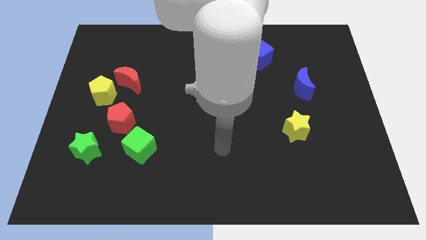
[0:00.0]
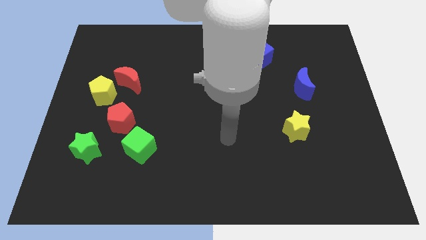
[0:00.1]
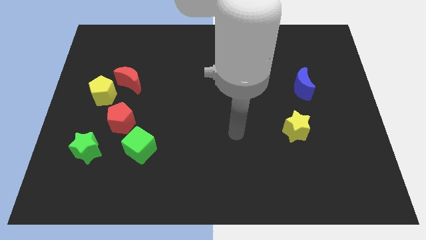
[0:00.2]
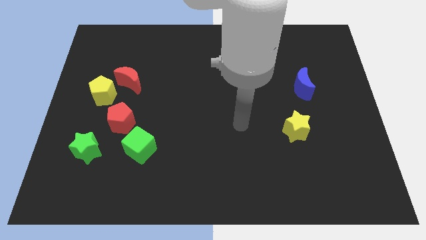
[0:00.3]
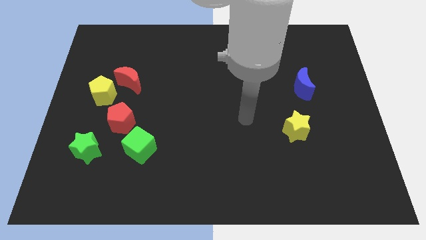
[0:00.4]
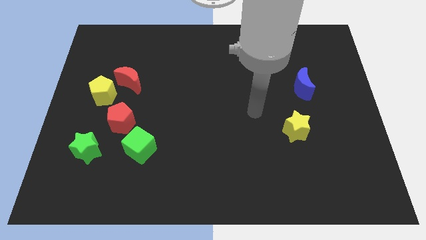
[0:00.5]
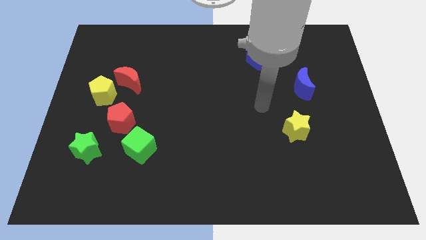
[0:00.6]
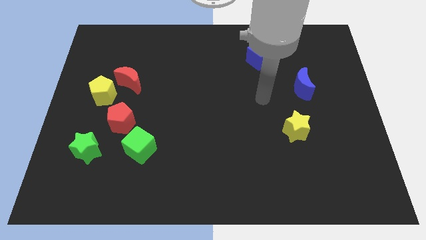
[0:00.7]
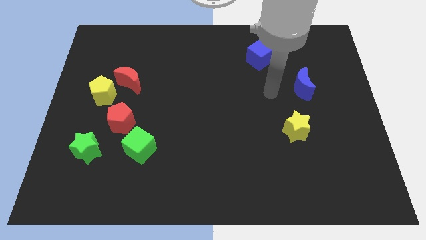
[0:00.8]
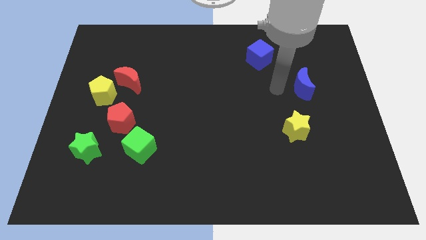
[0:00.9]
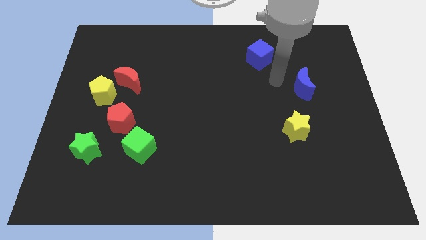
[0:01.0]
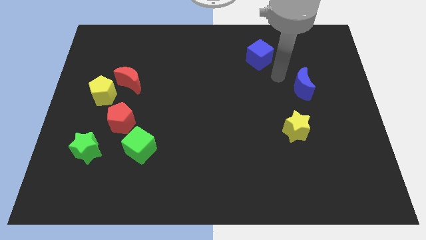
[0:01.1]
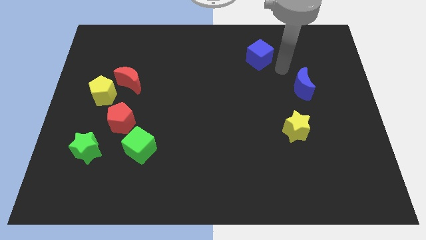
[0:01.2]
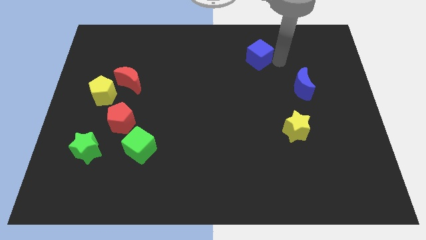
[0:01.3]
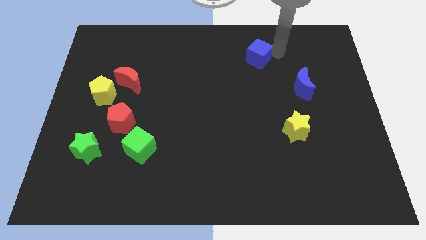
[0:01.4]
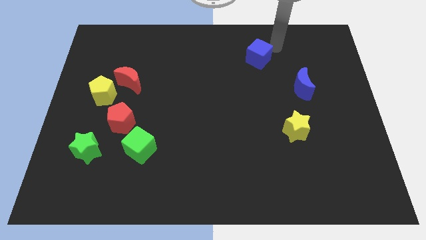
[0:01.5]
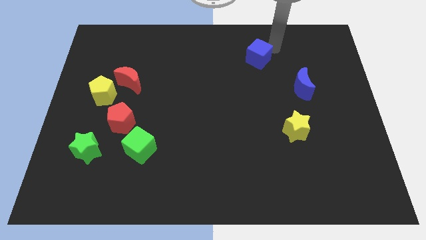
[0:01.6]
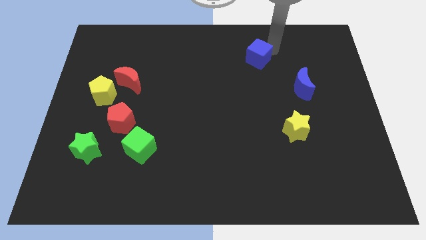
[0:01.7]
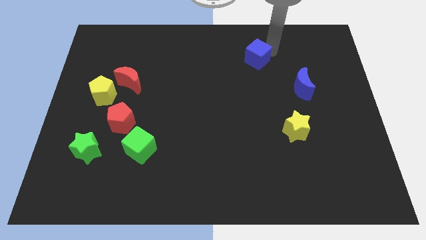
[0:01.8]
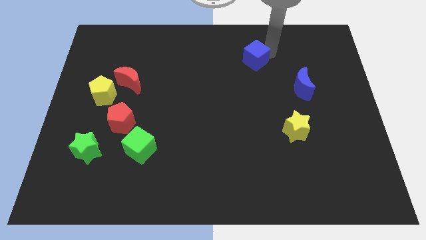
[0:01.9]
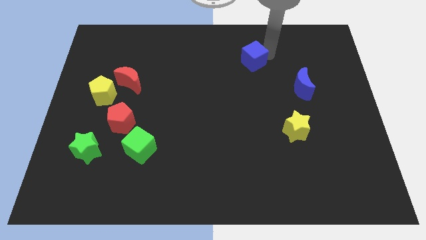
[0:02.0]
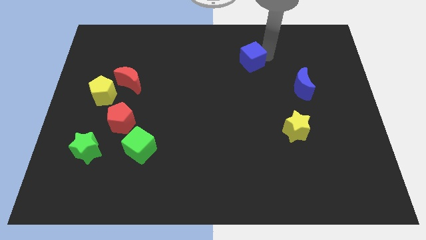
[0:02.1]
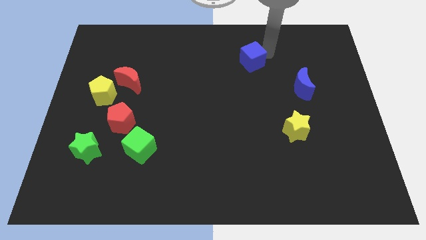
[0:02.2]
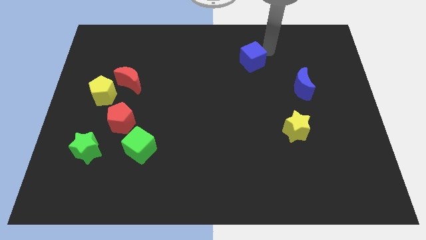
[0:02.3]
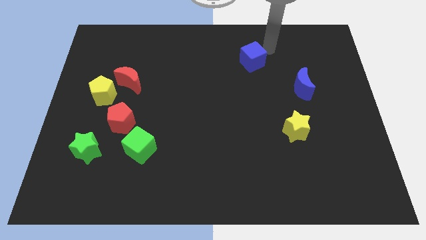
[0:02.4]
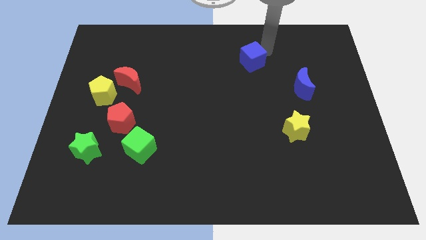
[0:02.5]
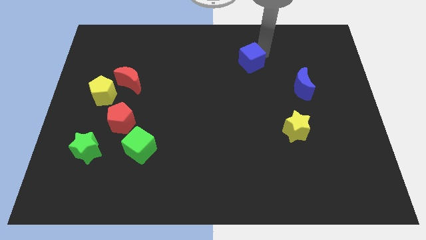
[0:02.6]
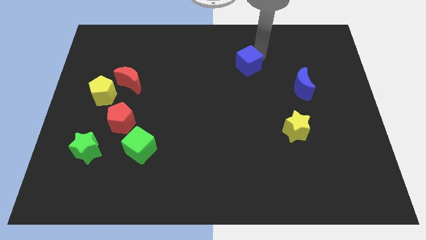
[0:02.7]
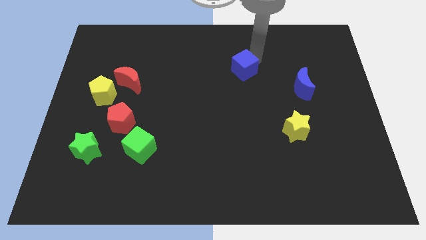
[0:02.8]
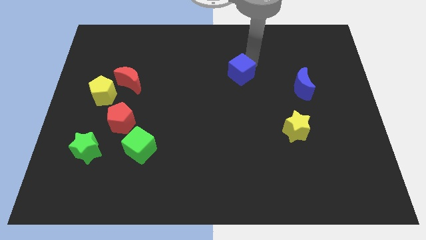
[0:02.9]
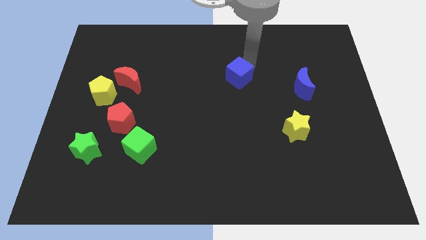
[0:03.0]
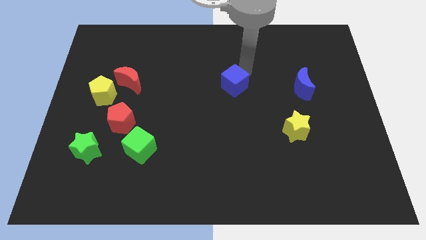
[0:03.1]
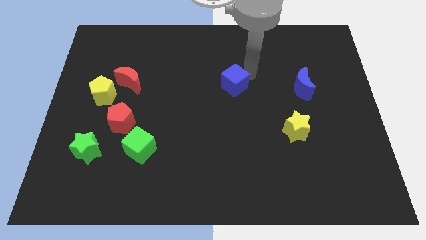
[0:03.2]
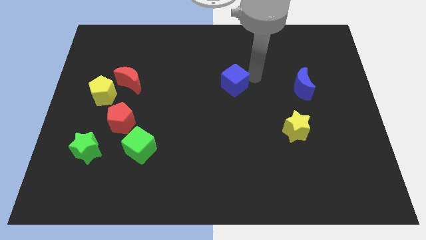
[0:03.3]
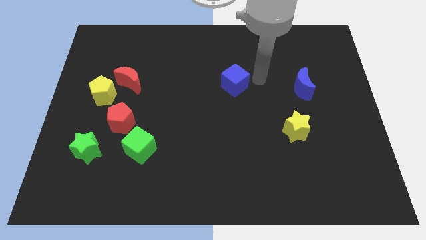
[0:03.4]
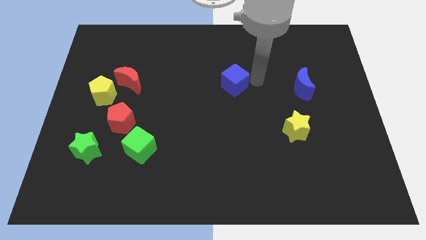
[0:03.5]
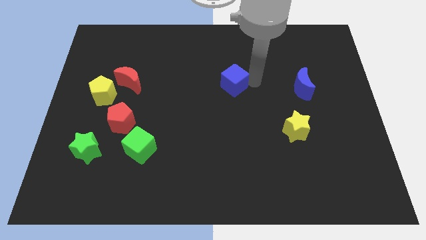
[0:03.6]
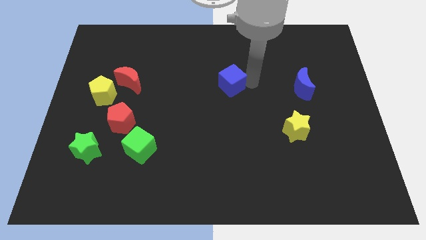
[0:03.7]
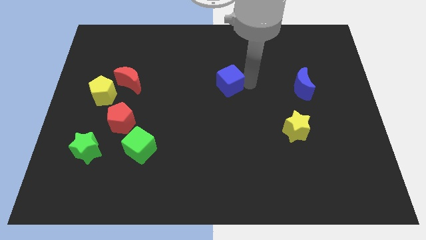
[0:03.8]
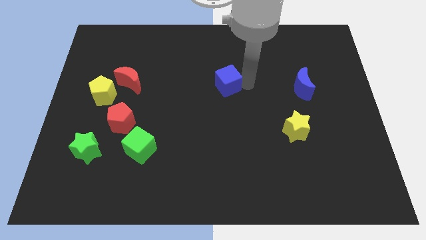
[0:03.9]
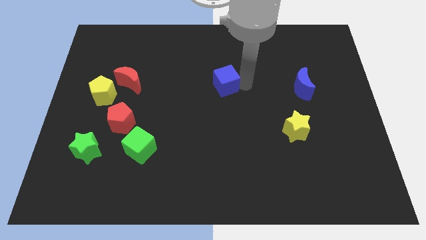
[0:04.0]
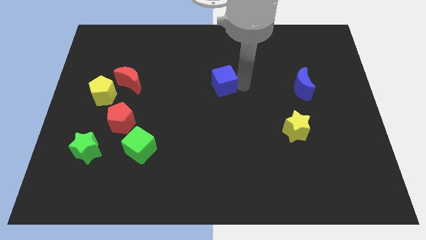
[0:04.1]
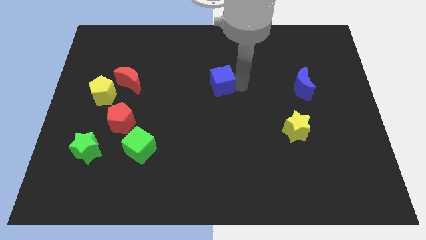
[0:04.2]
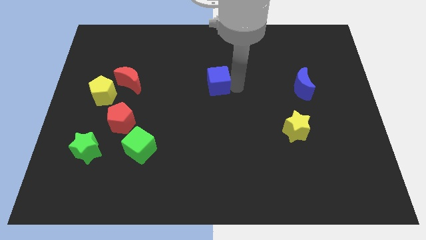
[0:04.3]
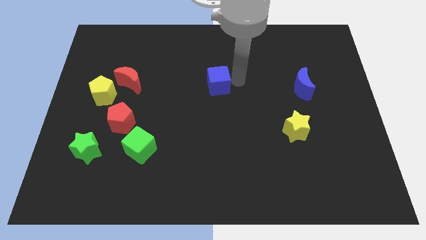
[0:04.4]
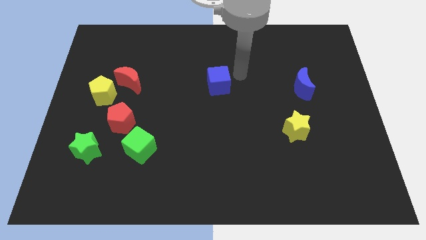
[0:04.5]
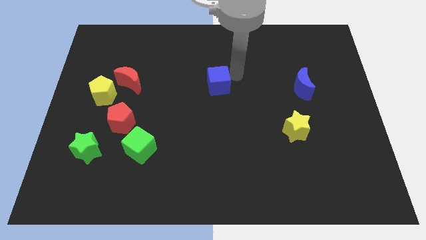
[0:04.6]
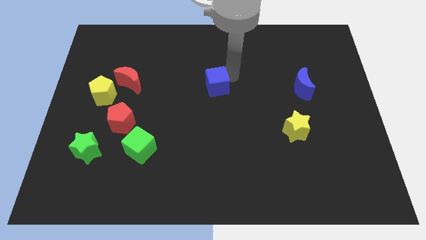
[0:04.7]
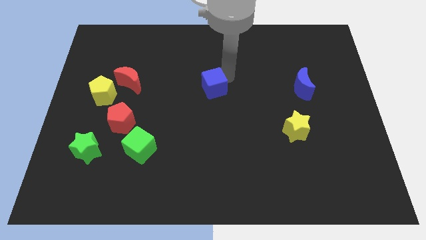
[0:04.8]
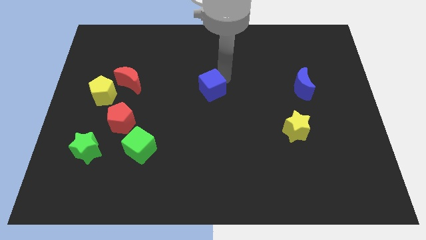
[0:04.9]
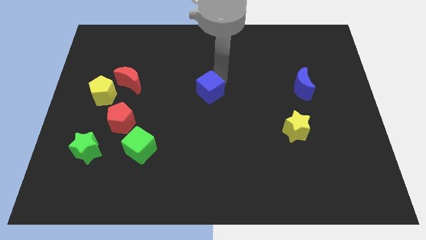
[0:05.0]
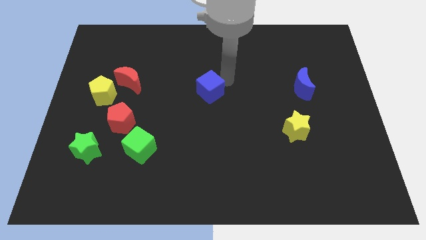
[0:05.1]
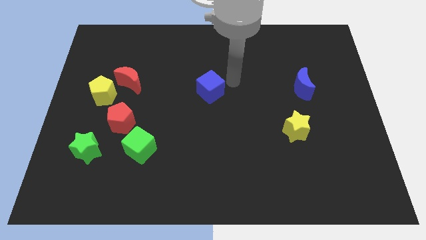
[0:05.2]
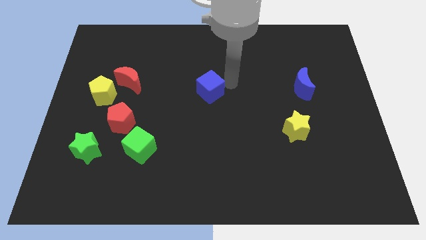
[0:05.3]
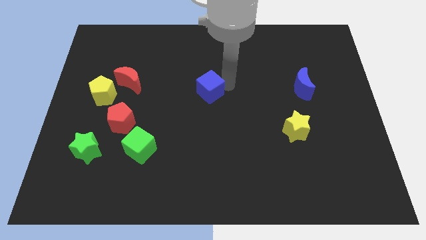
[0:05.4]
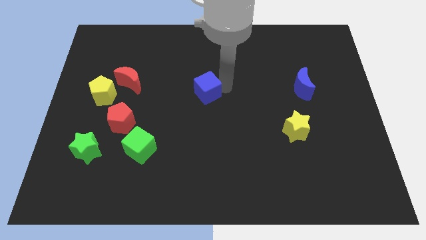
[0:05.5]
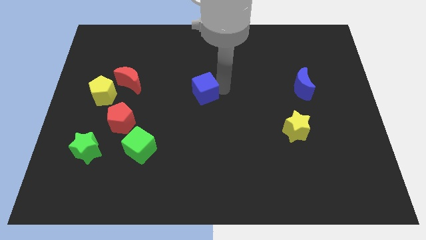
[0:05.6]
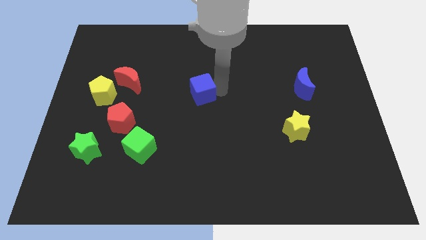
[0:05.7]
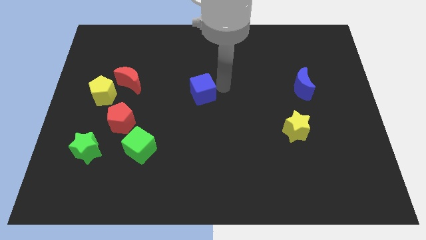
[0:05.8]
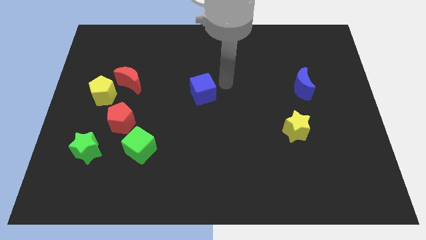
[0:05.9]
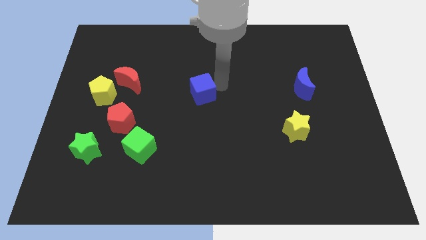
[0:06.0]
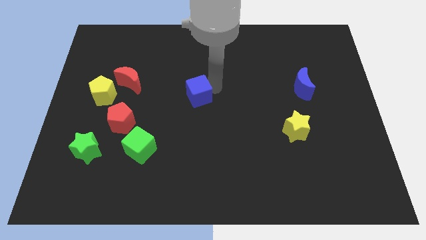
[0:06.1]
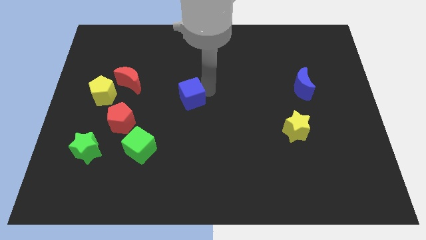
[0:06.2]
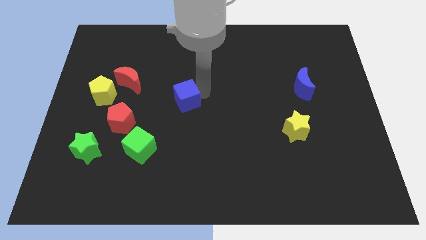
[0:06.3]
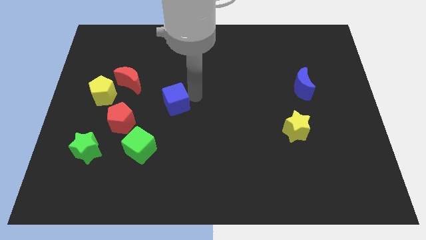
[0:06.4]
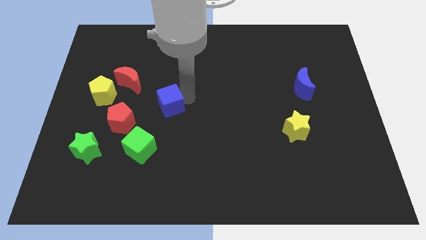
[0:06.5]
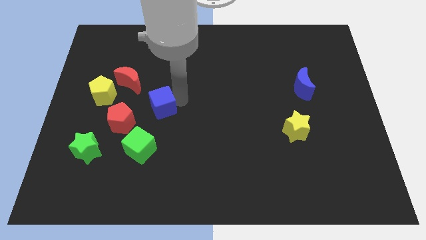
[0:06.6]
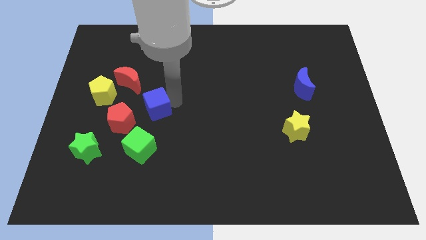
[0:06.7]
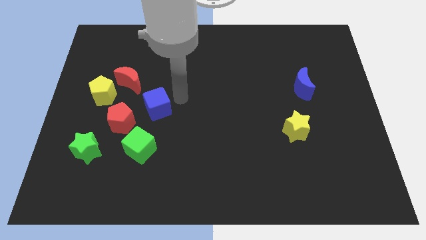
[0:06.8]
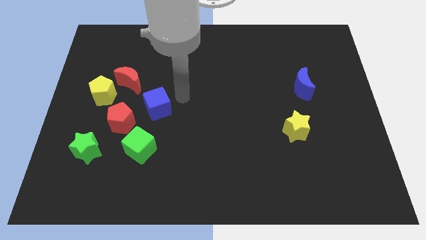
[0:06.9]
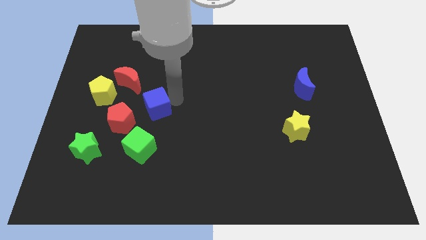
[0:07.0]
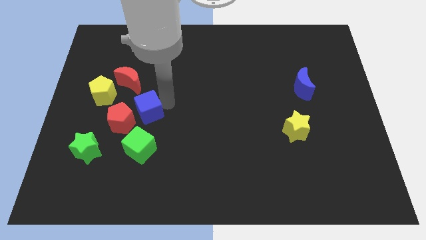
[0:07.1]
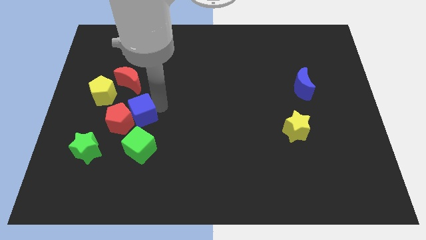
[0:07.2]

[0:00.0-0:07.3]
push the blue cube towards the red pentagon
